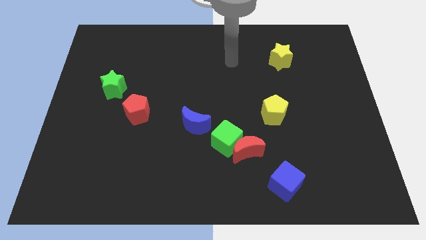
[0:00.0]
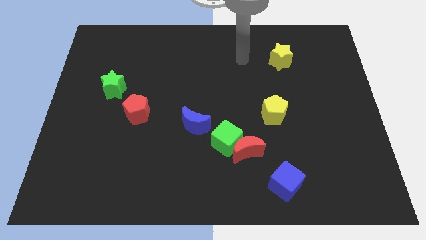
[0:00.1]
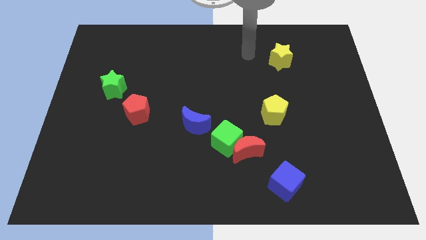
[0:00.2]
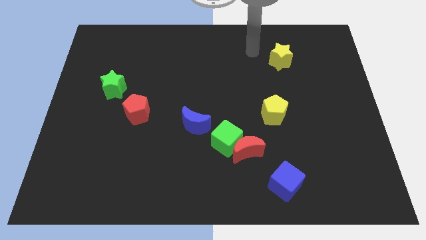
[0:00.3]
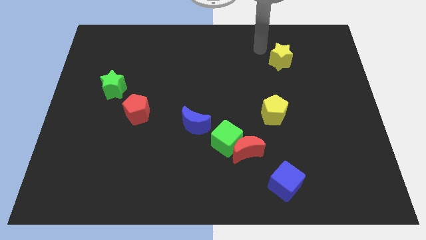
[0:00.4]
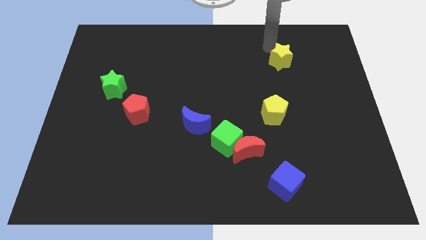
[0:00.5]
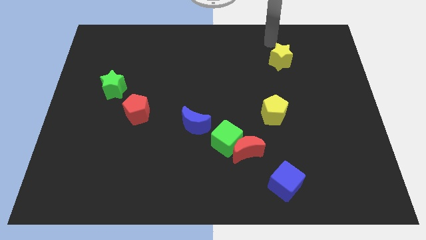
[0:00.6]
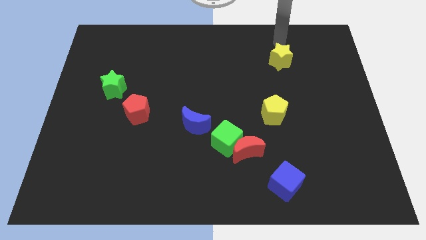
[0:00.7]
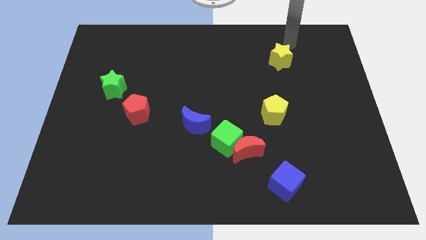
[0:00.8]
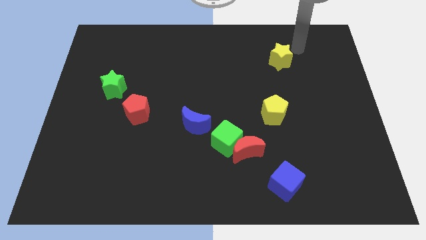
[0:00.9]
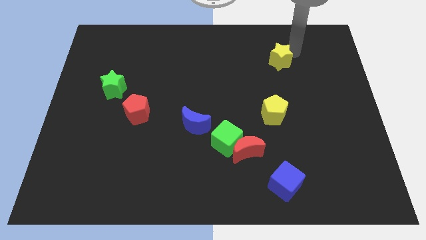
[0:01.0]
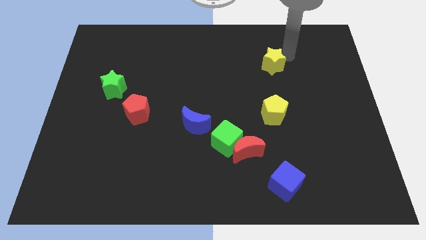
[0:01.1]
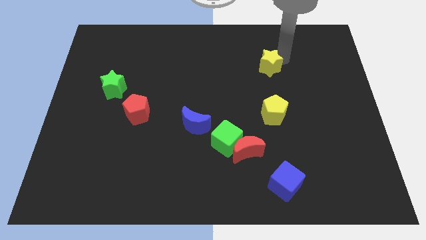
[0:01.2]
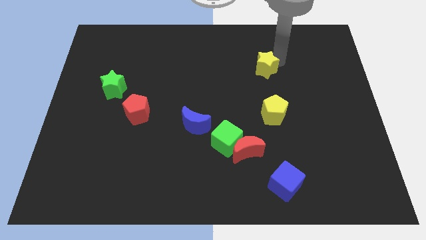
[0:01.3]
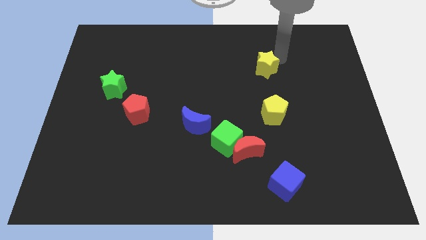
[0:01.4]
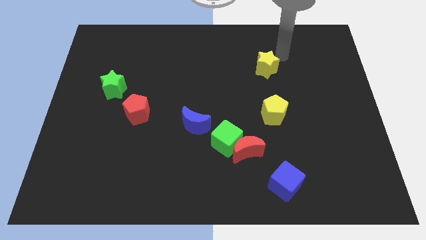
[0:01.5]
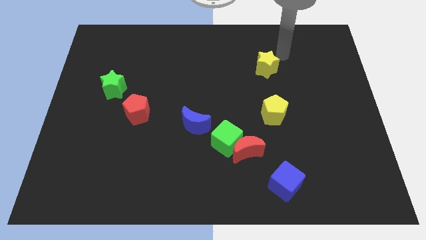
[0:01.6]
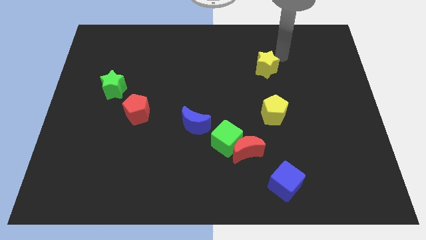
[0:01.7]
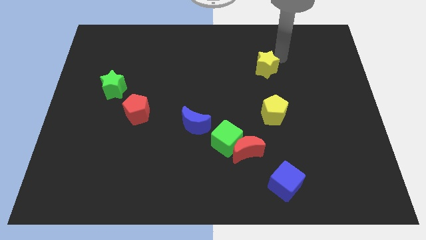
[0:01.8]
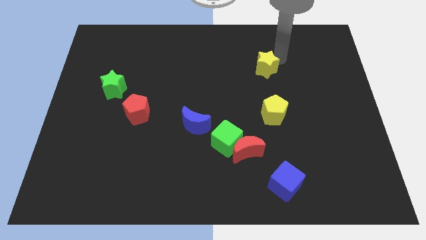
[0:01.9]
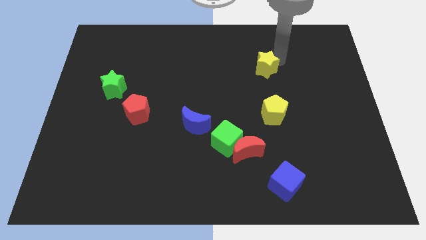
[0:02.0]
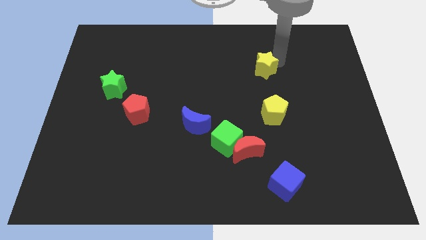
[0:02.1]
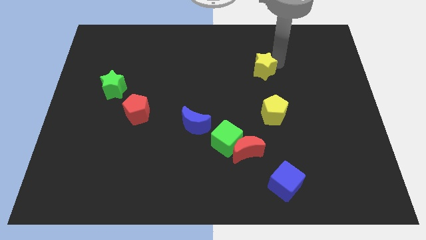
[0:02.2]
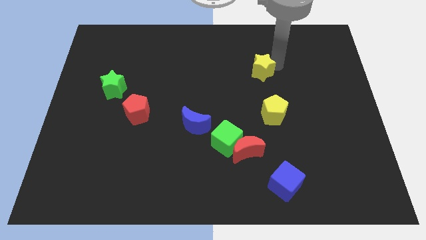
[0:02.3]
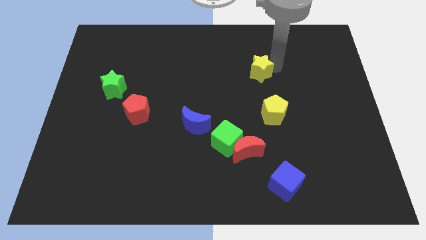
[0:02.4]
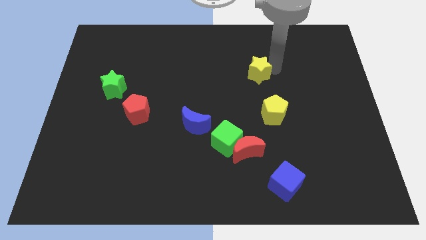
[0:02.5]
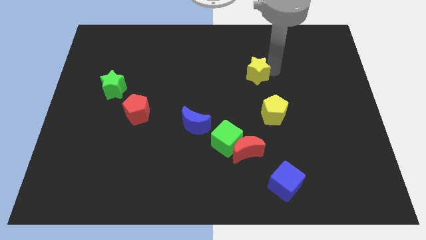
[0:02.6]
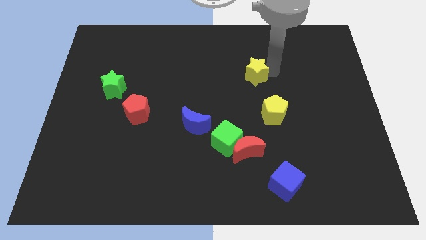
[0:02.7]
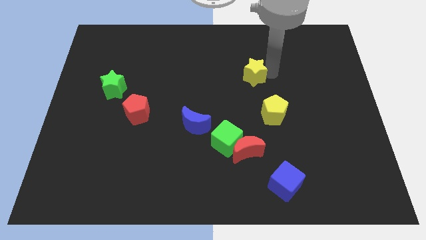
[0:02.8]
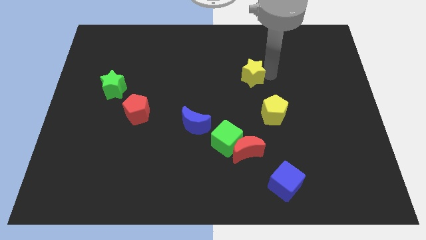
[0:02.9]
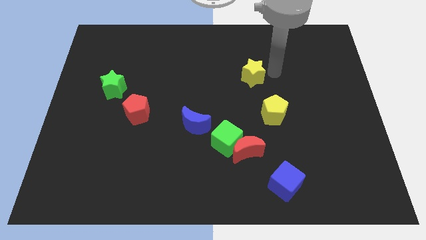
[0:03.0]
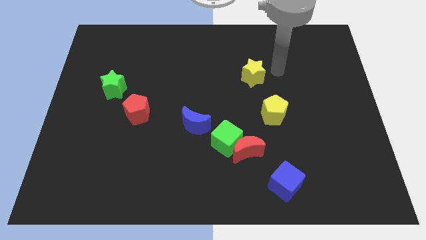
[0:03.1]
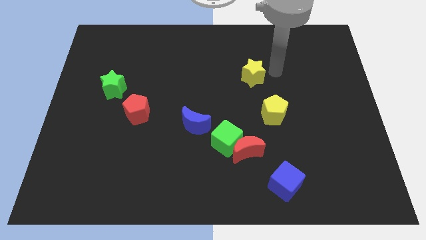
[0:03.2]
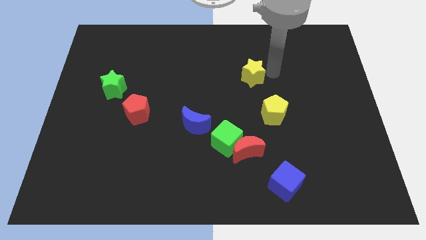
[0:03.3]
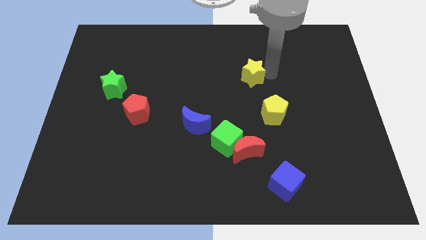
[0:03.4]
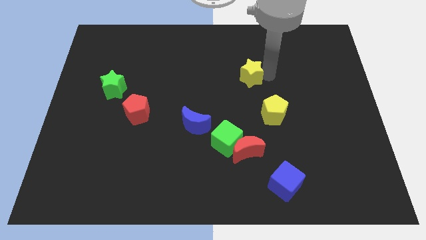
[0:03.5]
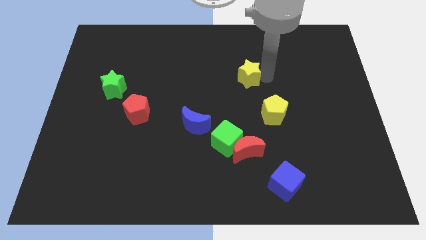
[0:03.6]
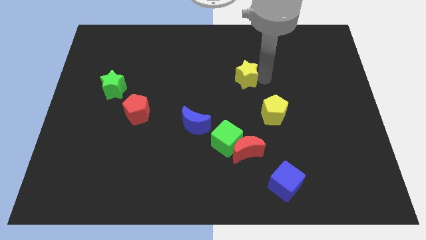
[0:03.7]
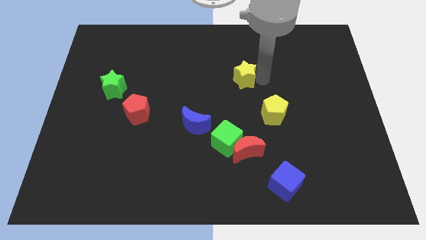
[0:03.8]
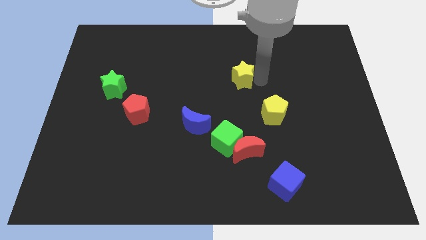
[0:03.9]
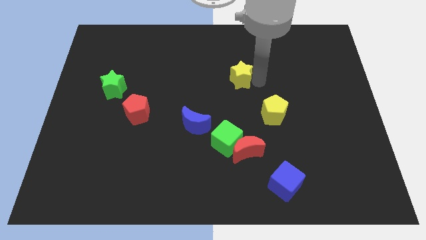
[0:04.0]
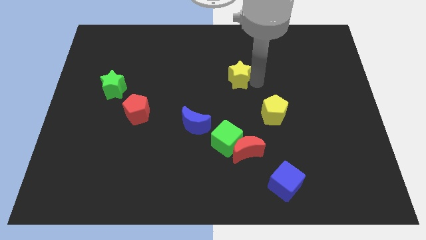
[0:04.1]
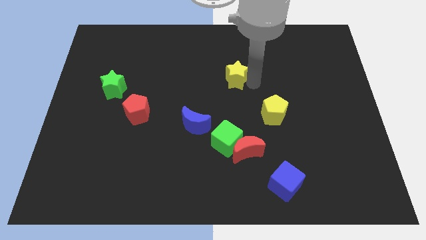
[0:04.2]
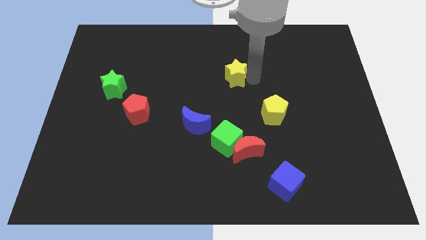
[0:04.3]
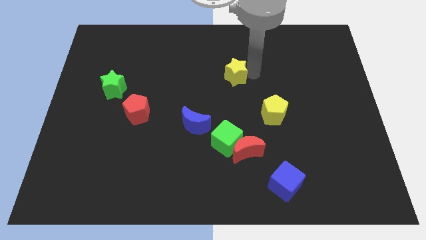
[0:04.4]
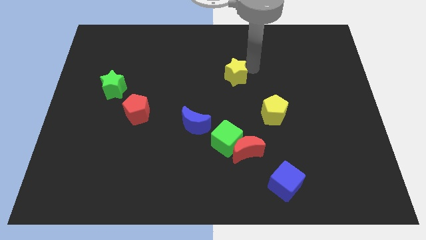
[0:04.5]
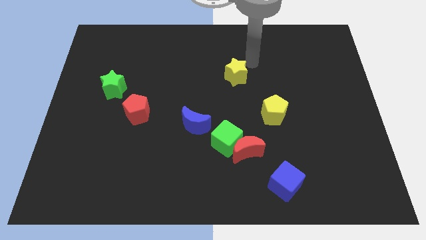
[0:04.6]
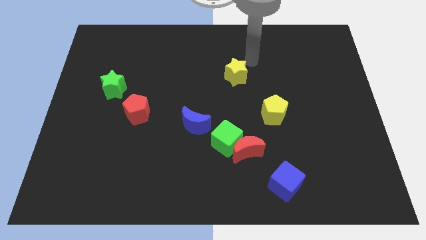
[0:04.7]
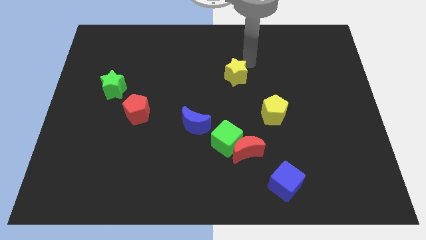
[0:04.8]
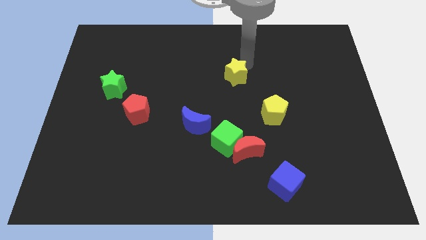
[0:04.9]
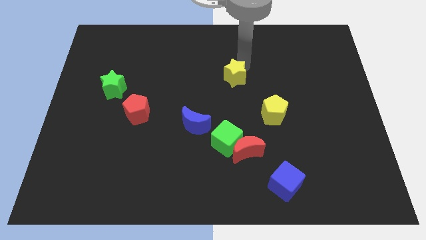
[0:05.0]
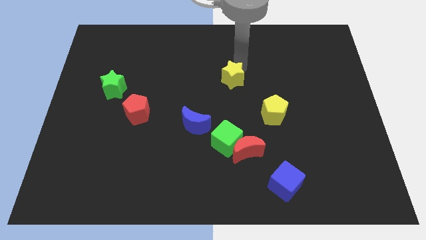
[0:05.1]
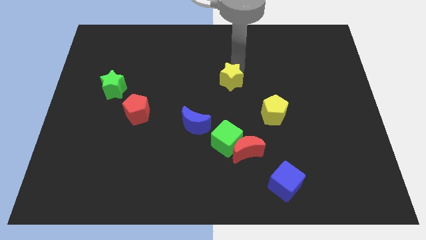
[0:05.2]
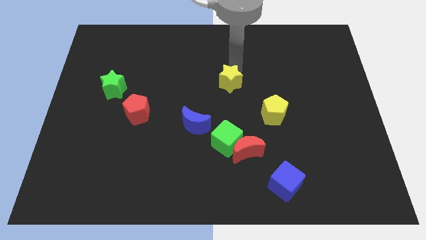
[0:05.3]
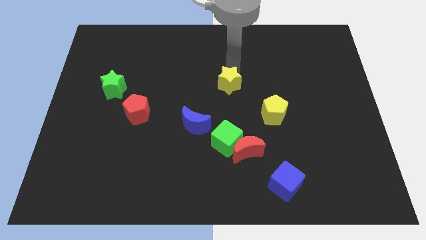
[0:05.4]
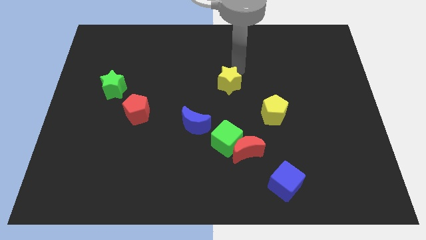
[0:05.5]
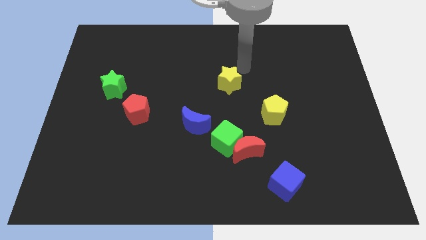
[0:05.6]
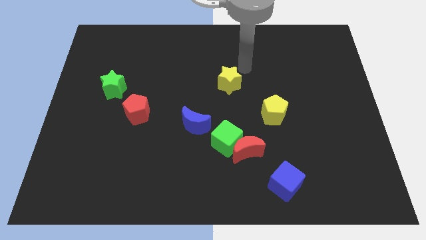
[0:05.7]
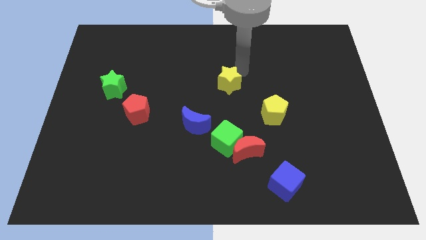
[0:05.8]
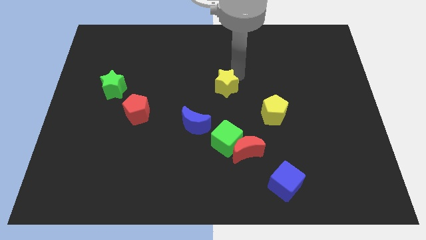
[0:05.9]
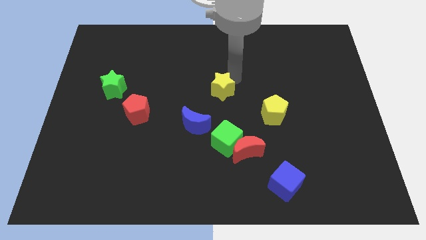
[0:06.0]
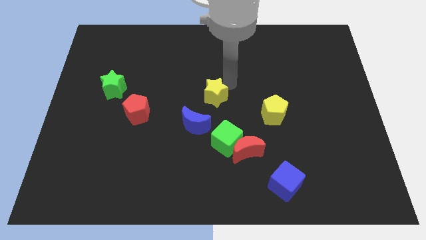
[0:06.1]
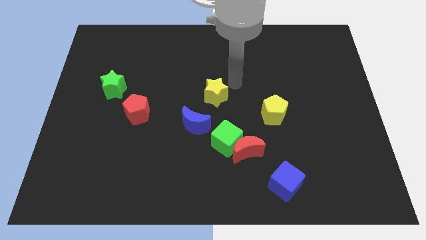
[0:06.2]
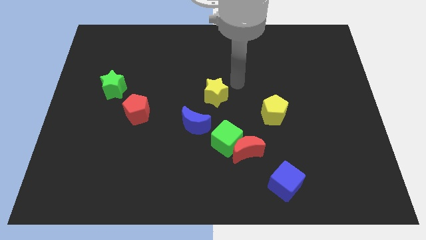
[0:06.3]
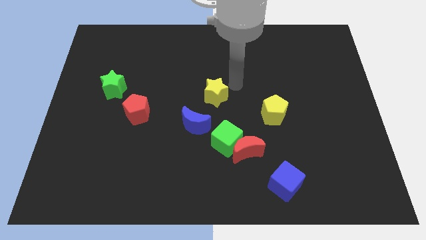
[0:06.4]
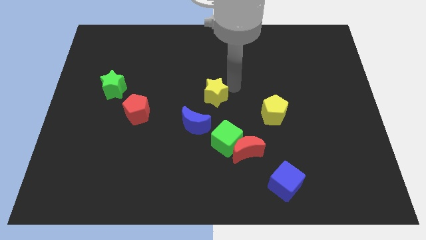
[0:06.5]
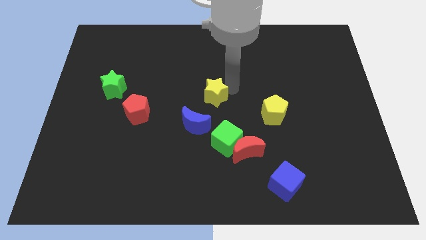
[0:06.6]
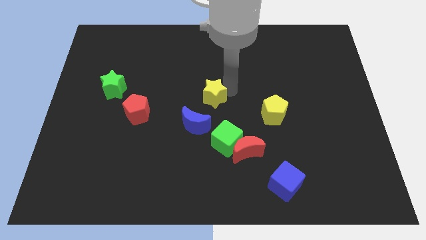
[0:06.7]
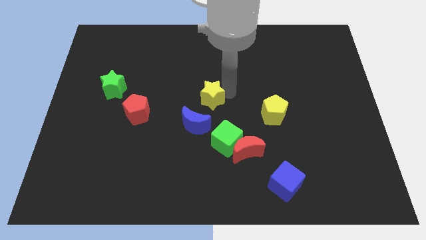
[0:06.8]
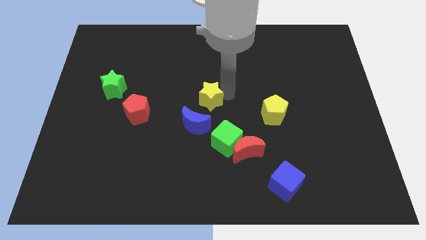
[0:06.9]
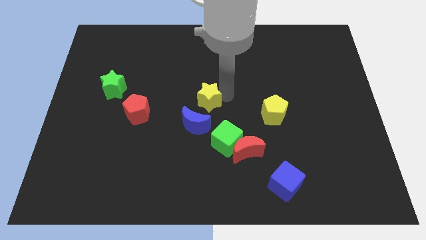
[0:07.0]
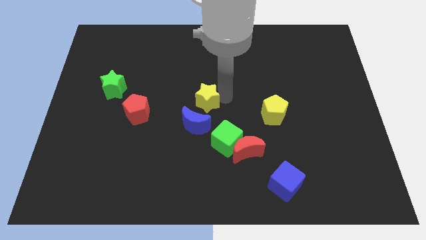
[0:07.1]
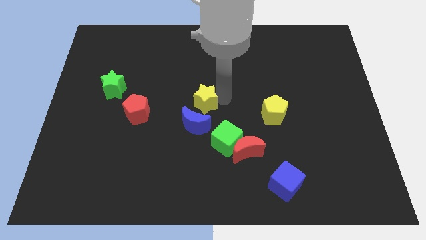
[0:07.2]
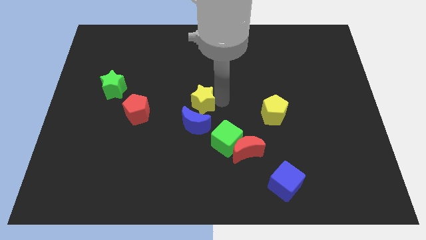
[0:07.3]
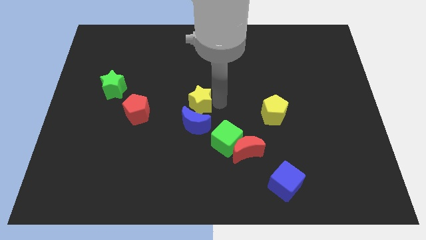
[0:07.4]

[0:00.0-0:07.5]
push the yellow star to the right side of the red pentagon

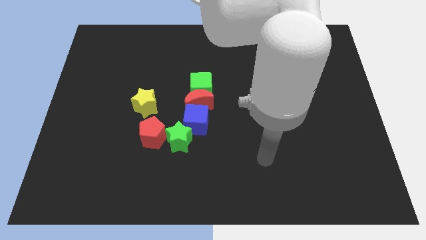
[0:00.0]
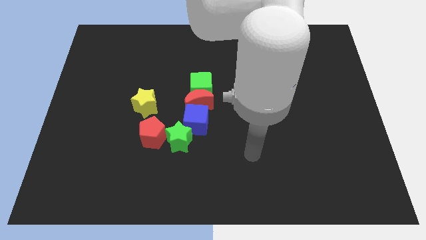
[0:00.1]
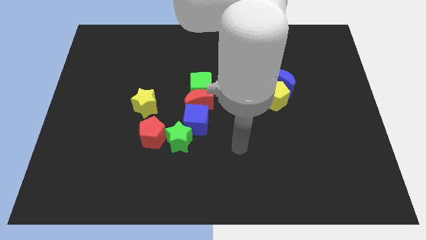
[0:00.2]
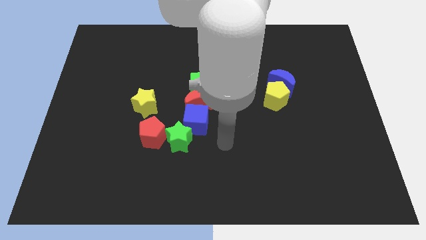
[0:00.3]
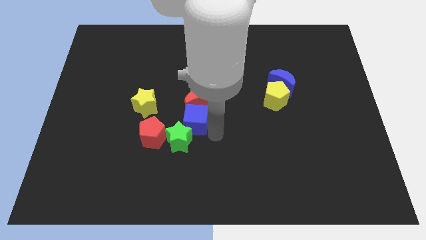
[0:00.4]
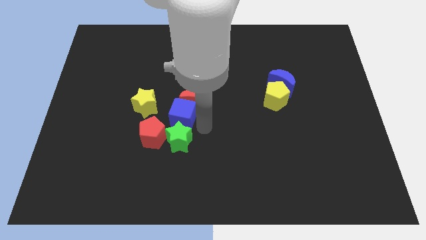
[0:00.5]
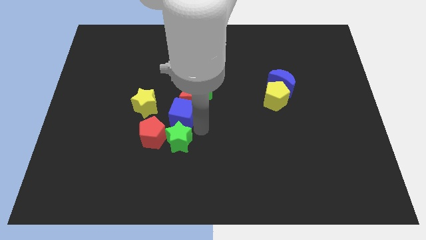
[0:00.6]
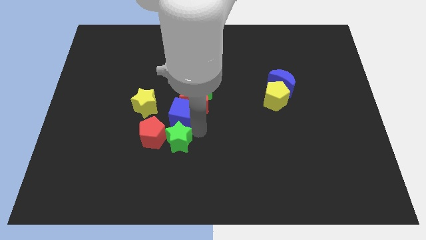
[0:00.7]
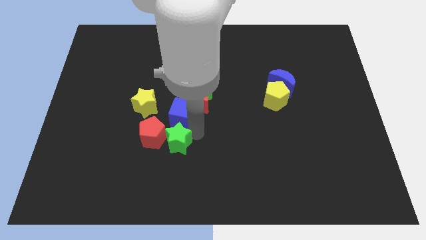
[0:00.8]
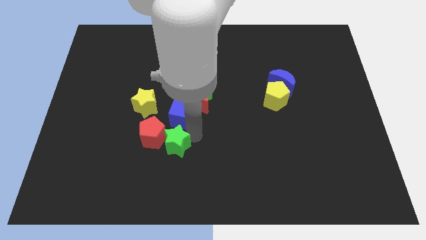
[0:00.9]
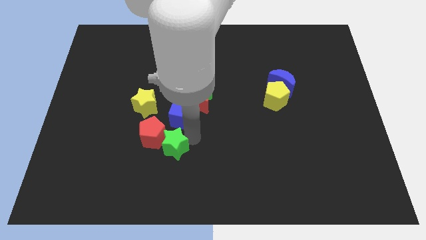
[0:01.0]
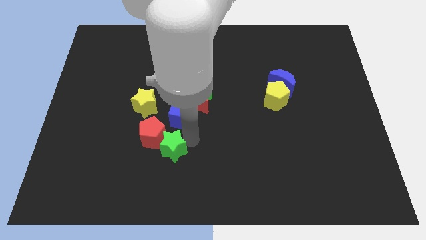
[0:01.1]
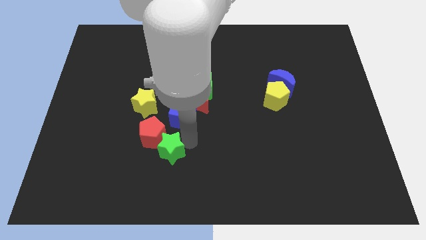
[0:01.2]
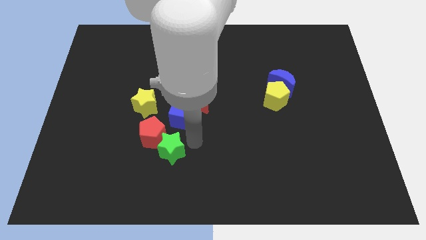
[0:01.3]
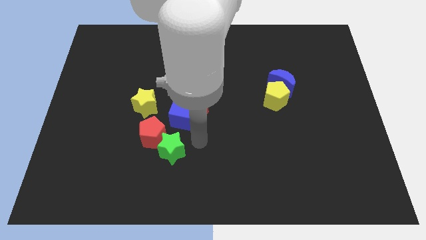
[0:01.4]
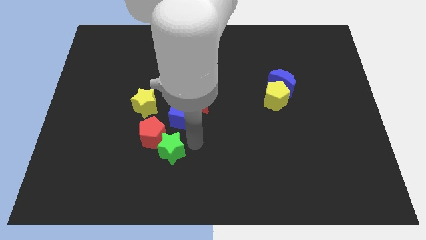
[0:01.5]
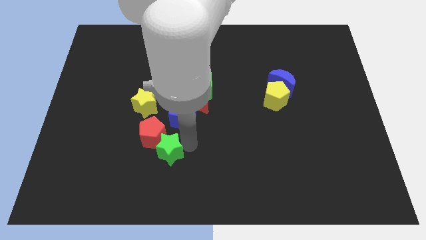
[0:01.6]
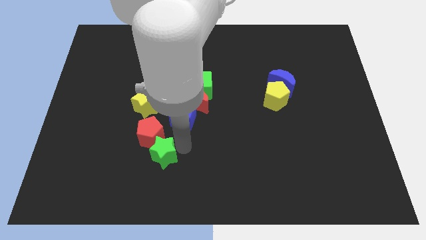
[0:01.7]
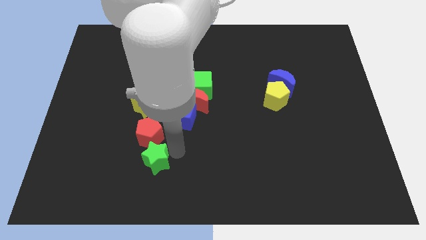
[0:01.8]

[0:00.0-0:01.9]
slide the green star to the bottom of the yellow star
